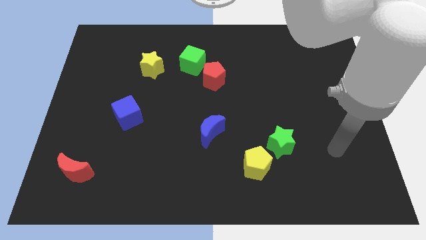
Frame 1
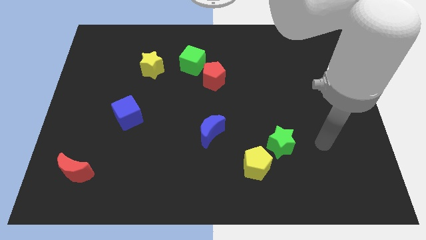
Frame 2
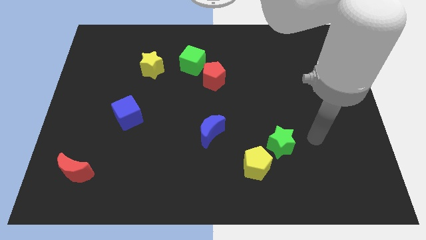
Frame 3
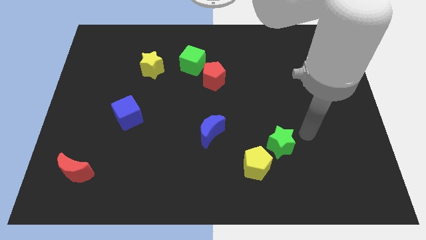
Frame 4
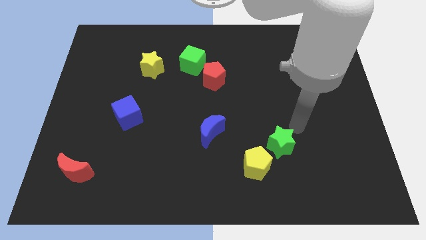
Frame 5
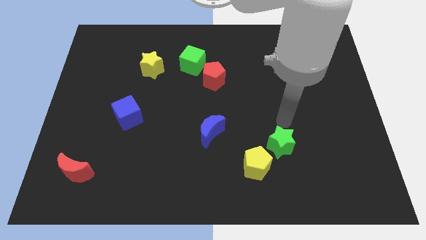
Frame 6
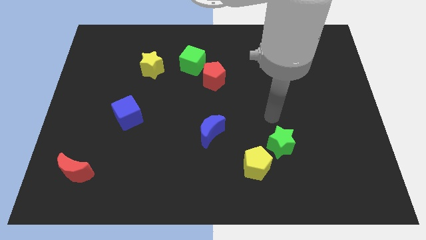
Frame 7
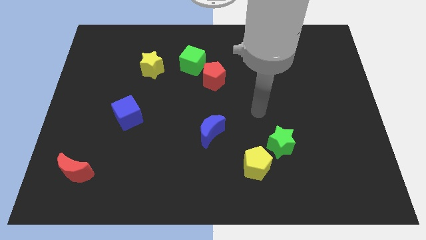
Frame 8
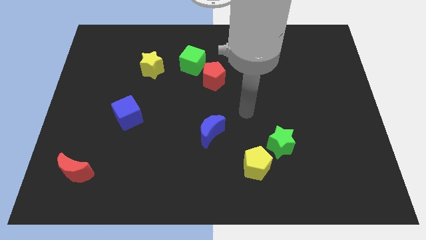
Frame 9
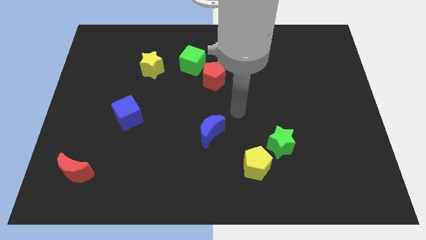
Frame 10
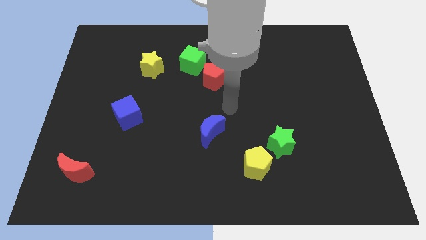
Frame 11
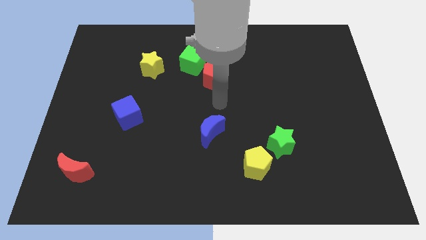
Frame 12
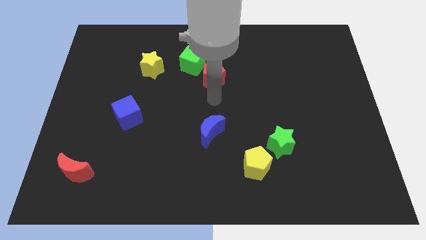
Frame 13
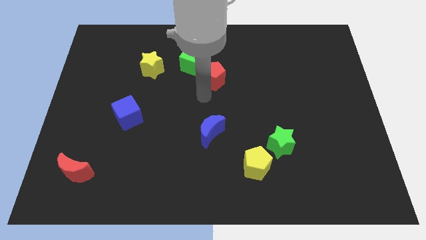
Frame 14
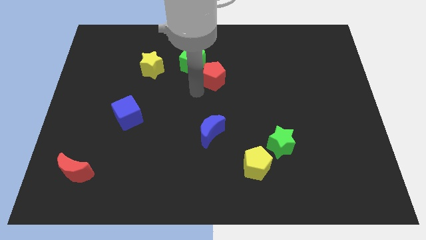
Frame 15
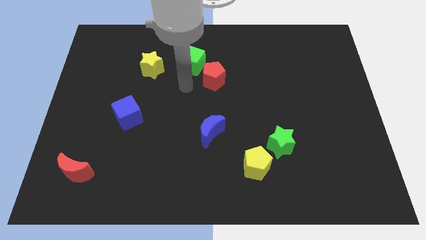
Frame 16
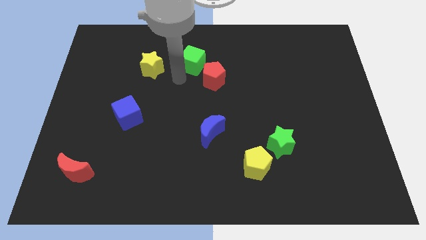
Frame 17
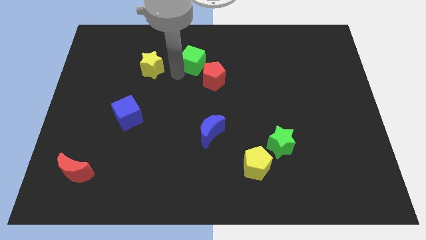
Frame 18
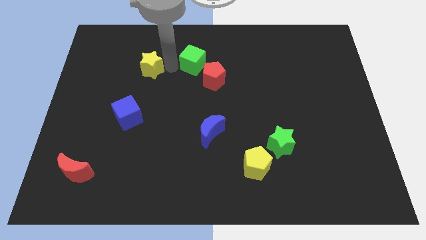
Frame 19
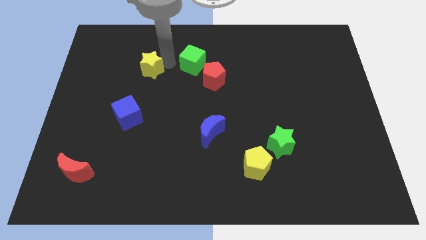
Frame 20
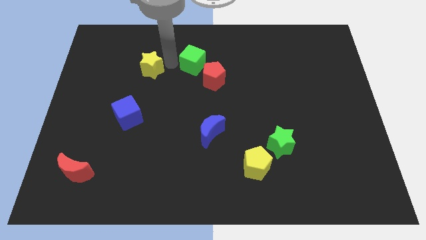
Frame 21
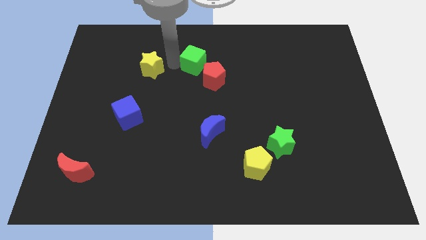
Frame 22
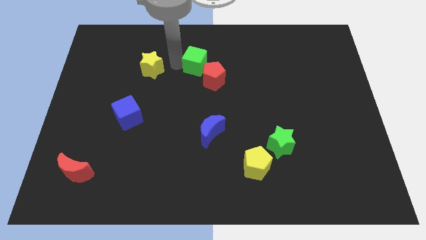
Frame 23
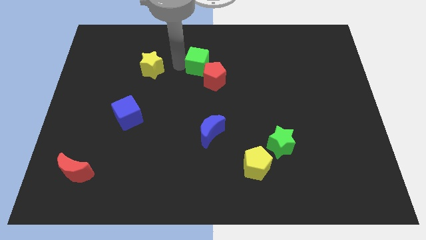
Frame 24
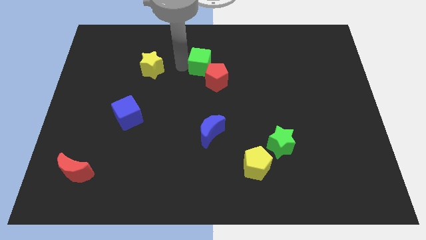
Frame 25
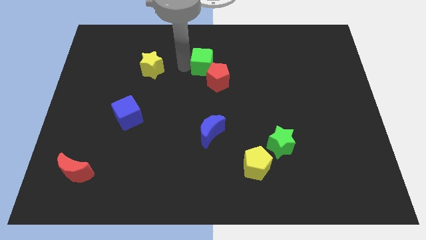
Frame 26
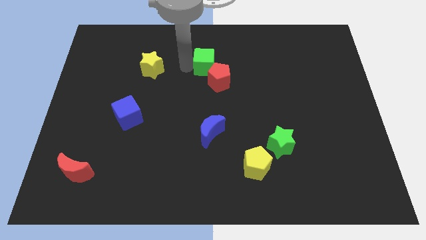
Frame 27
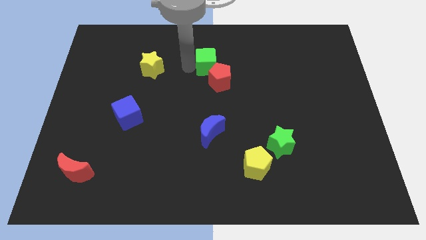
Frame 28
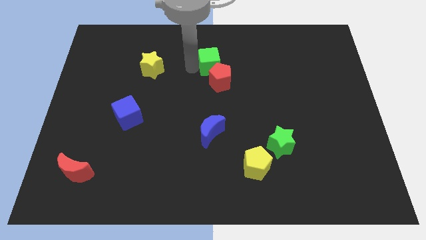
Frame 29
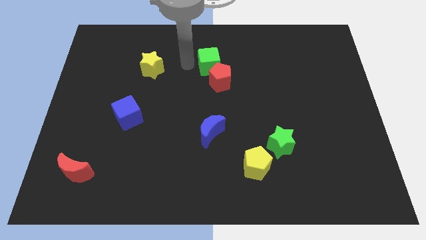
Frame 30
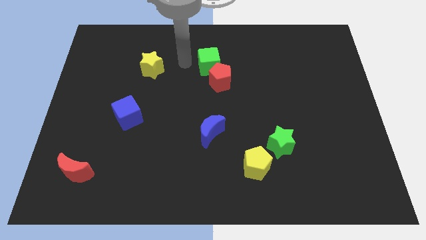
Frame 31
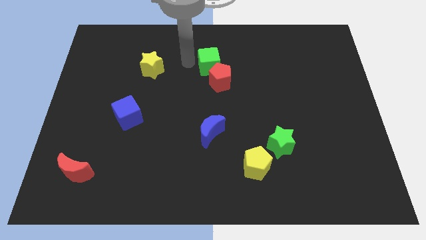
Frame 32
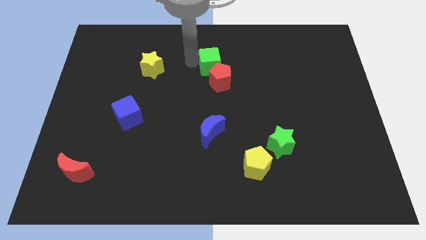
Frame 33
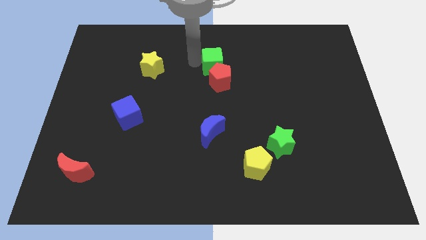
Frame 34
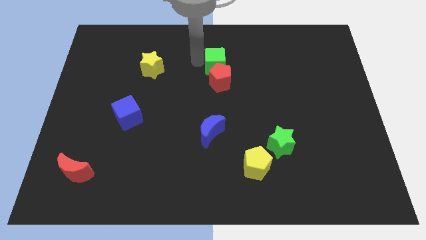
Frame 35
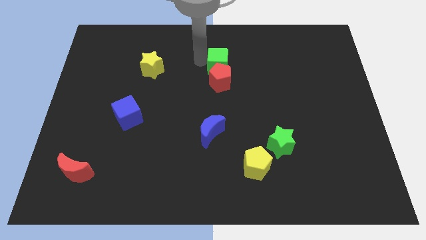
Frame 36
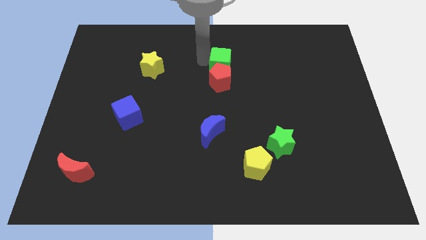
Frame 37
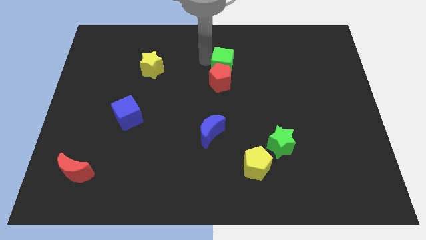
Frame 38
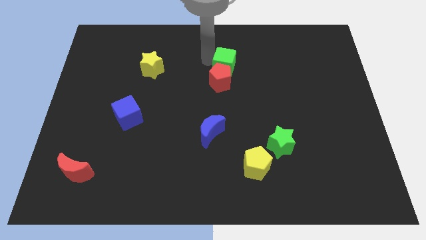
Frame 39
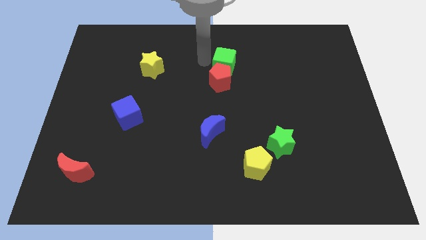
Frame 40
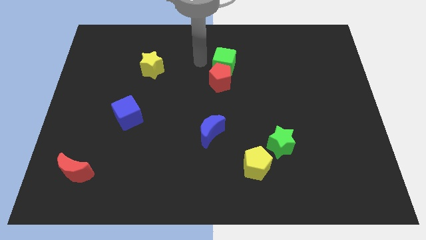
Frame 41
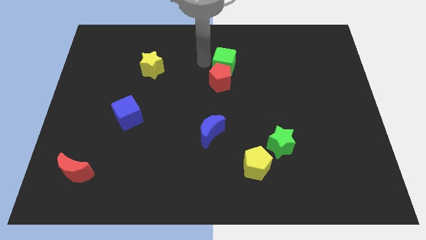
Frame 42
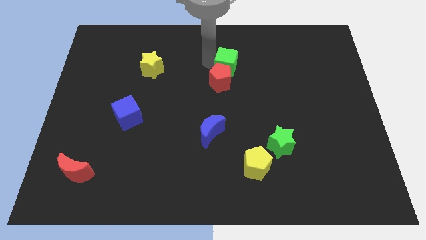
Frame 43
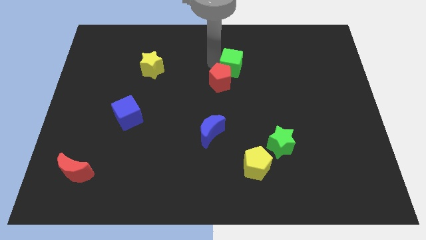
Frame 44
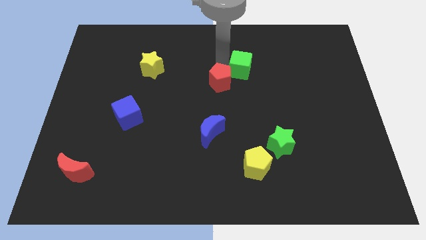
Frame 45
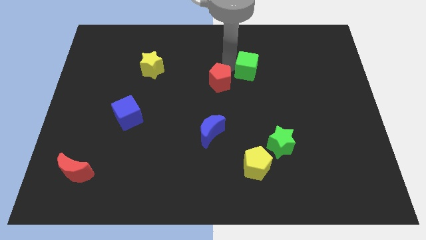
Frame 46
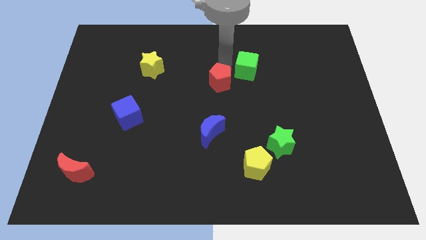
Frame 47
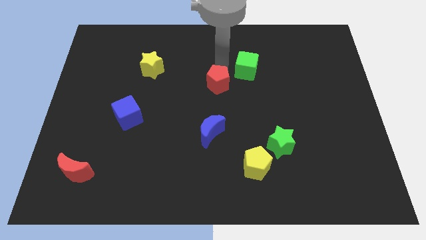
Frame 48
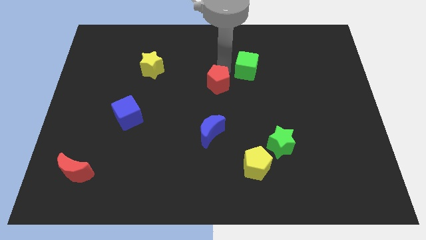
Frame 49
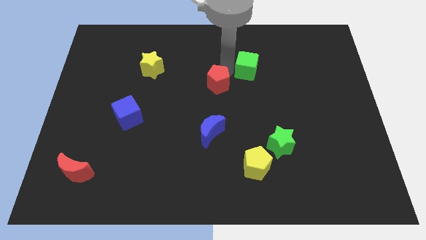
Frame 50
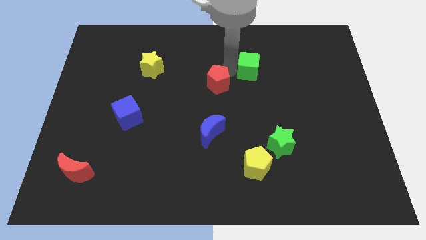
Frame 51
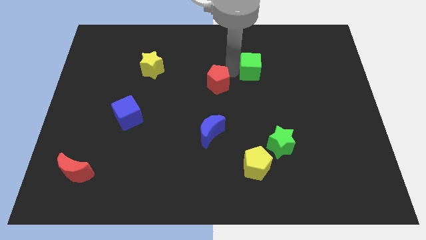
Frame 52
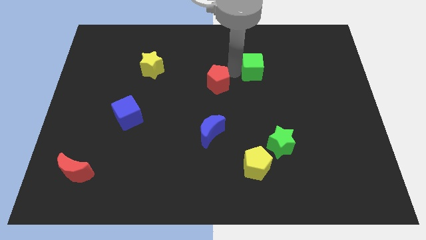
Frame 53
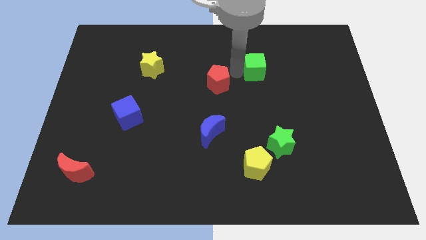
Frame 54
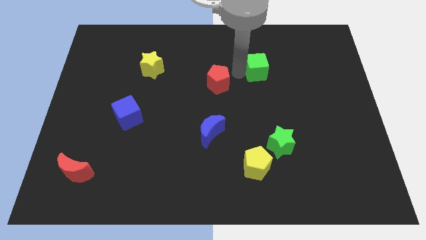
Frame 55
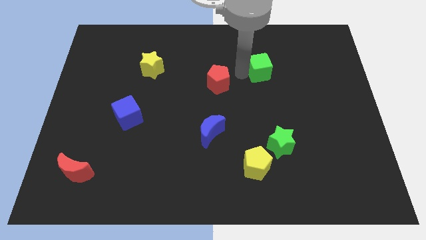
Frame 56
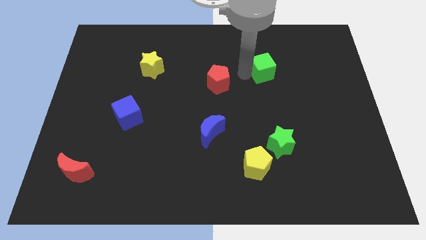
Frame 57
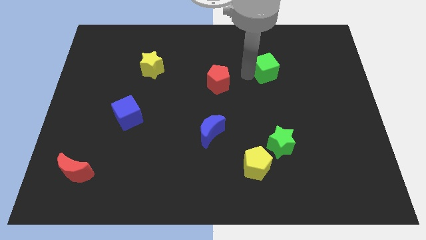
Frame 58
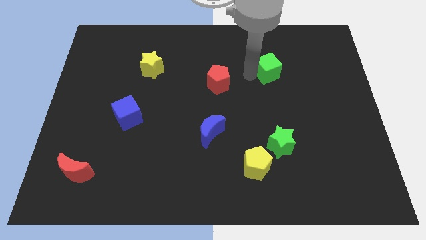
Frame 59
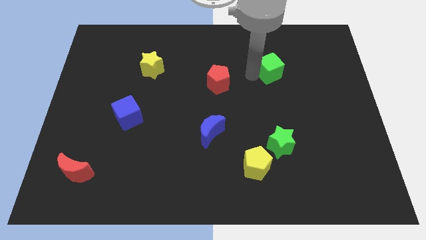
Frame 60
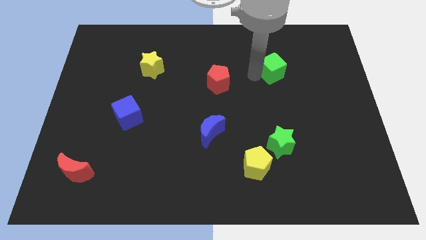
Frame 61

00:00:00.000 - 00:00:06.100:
push the green cube right

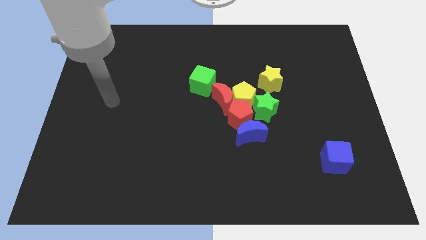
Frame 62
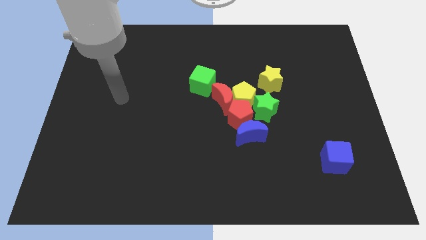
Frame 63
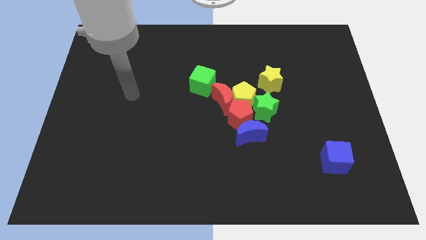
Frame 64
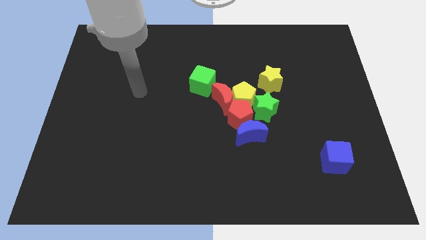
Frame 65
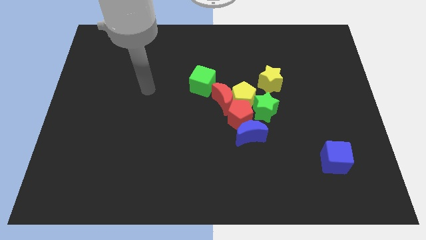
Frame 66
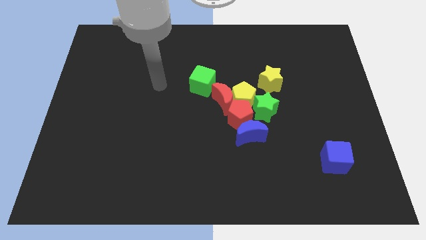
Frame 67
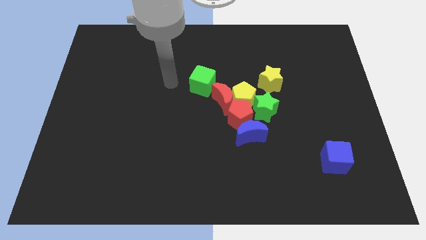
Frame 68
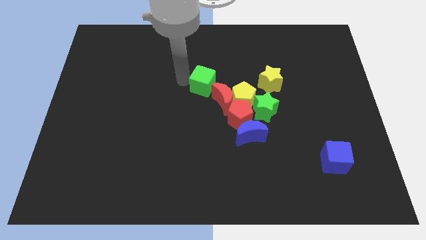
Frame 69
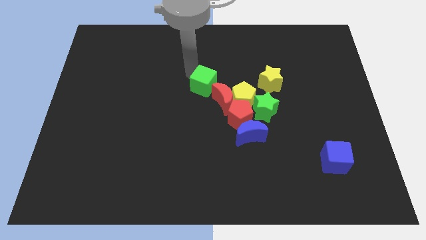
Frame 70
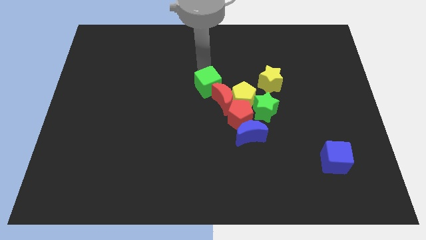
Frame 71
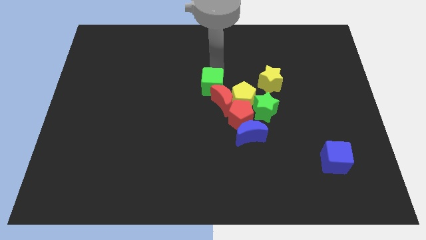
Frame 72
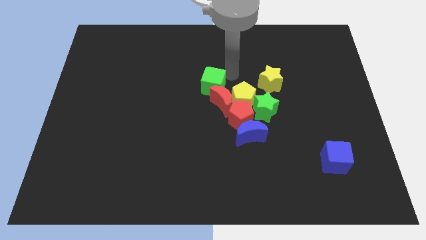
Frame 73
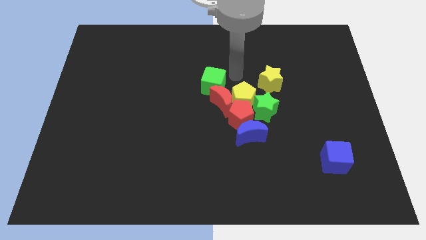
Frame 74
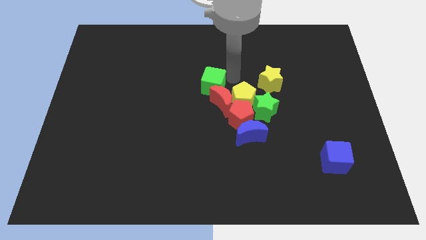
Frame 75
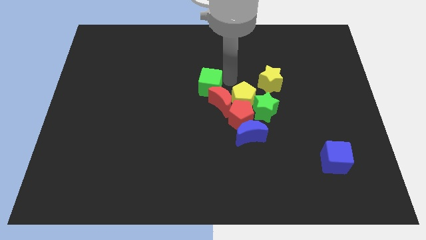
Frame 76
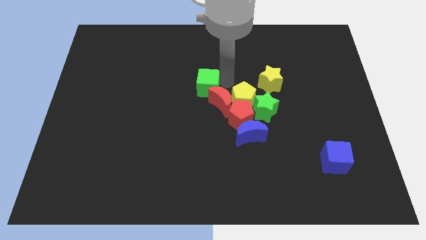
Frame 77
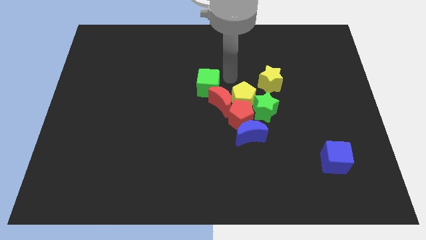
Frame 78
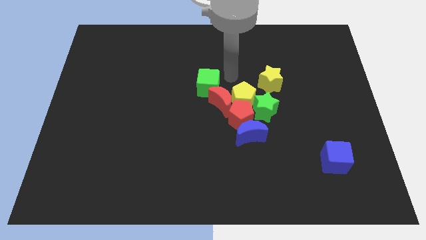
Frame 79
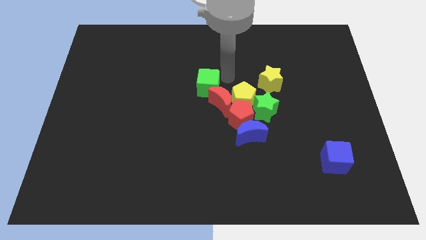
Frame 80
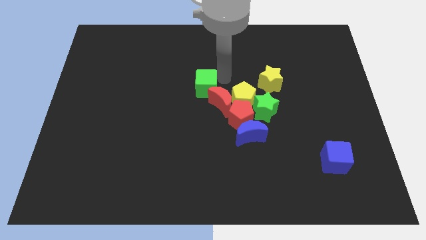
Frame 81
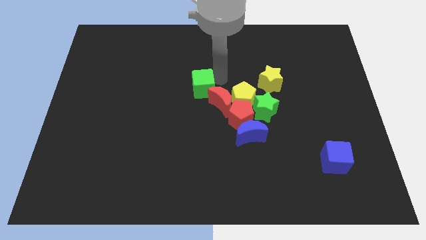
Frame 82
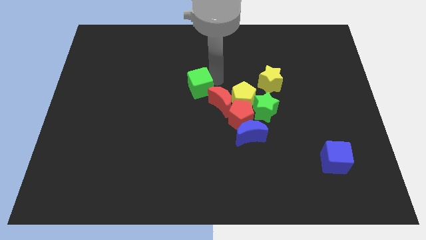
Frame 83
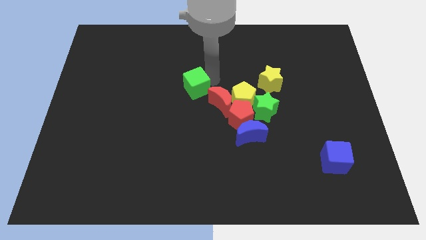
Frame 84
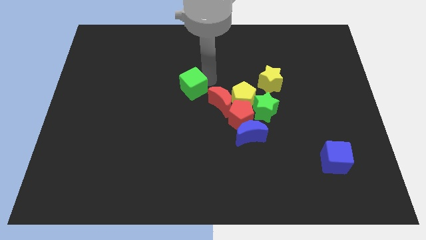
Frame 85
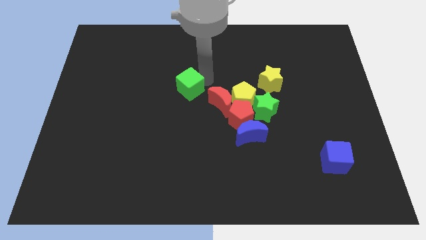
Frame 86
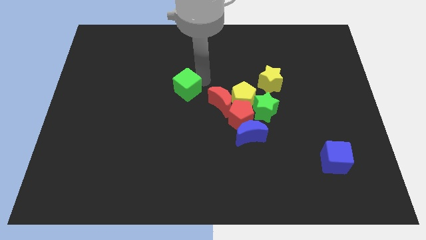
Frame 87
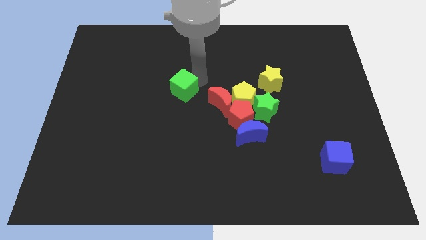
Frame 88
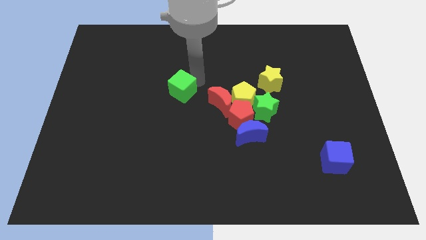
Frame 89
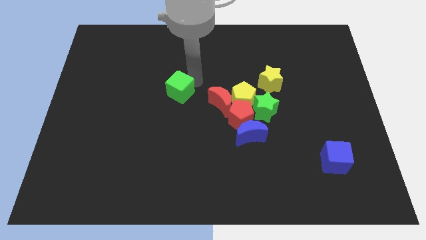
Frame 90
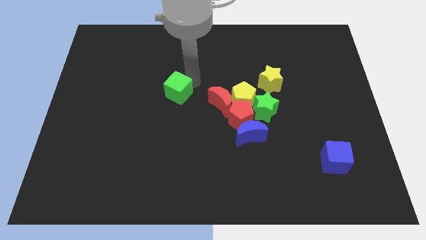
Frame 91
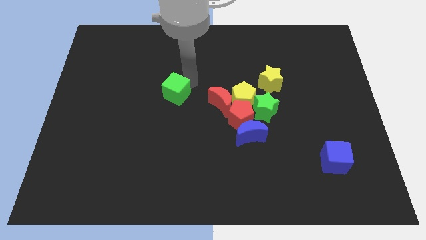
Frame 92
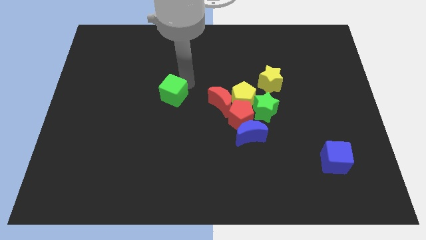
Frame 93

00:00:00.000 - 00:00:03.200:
slightly slide the green cube down and left diagonally
